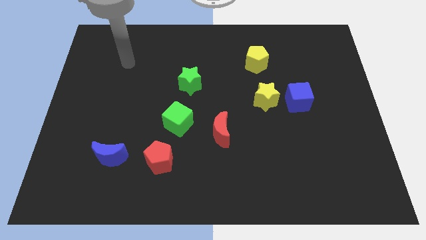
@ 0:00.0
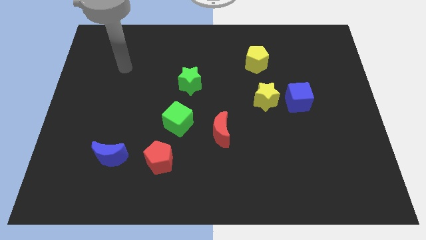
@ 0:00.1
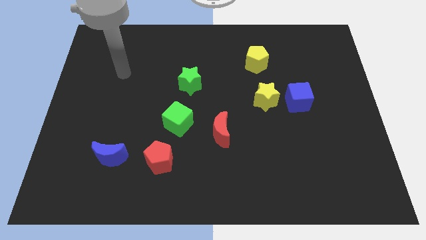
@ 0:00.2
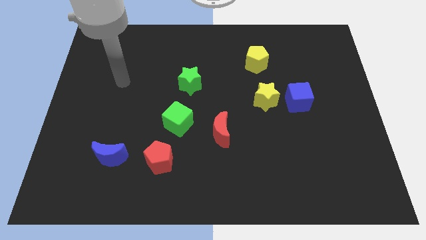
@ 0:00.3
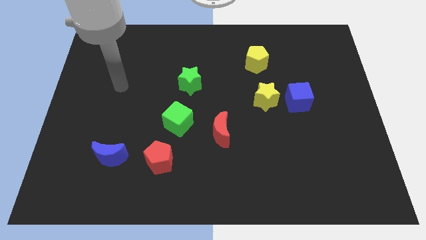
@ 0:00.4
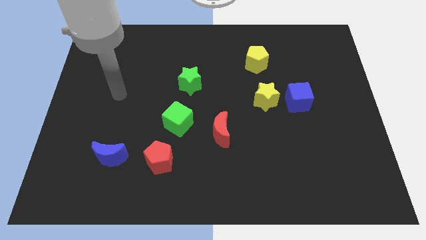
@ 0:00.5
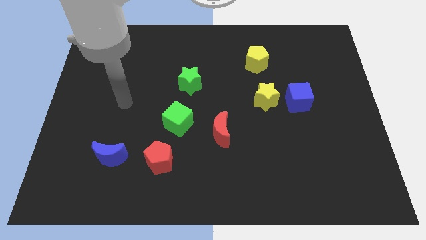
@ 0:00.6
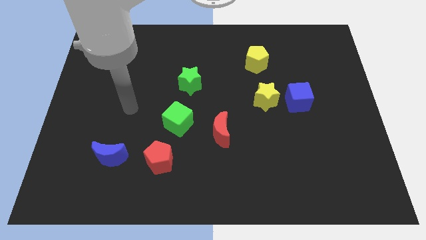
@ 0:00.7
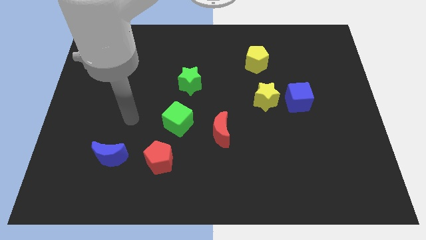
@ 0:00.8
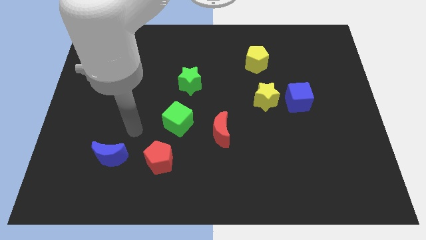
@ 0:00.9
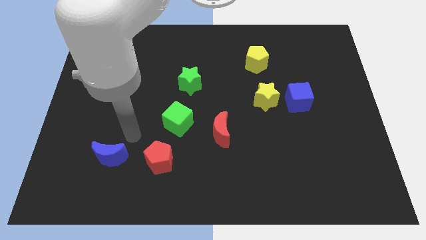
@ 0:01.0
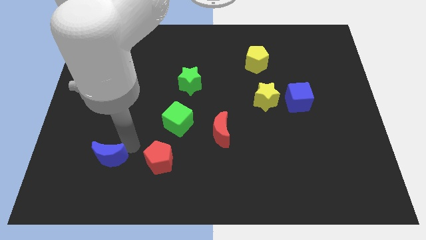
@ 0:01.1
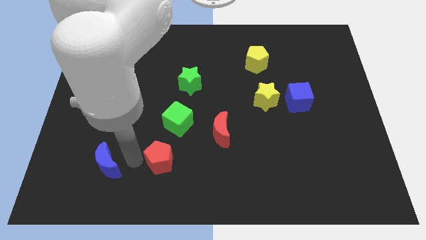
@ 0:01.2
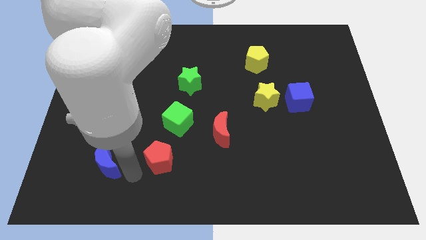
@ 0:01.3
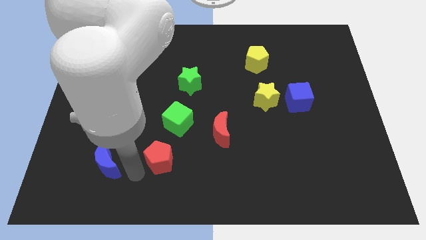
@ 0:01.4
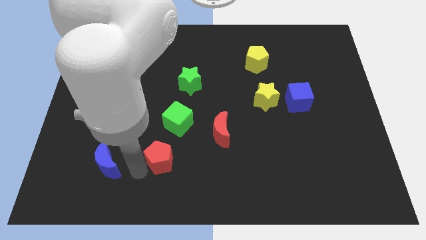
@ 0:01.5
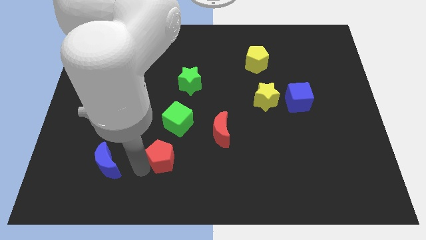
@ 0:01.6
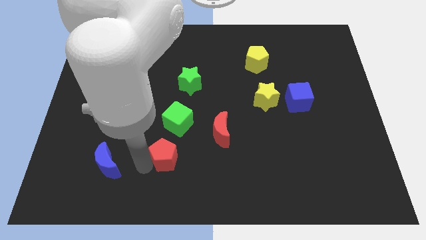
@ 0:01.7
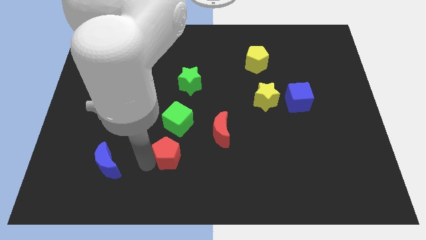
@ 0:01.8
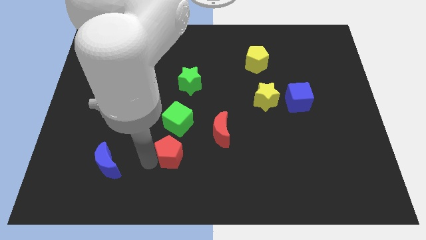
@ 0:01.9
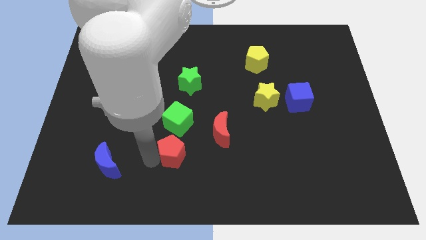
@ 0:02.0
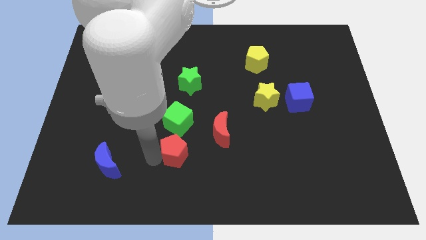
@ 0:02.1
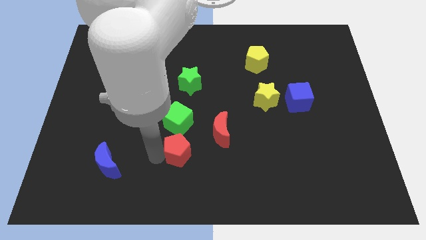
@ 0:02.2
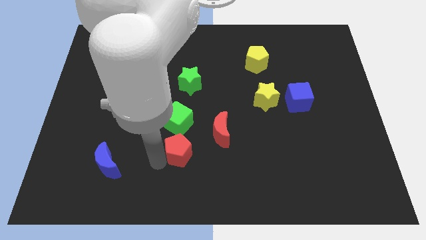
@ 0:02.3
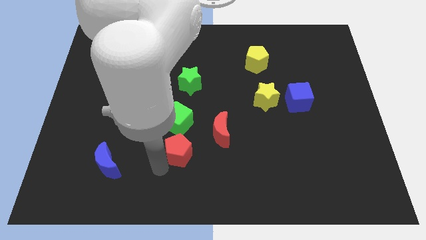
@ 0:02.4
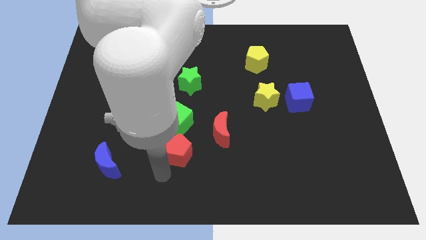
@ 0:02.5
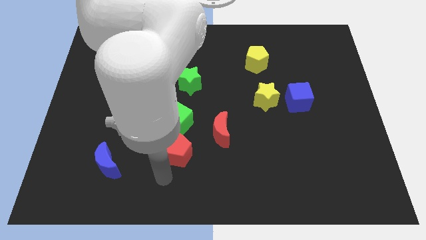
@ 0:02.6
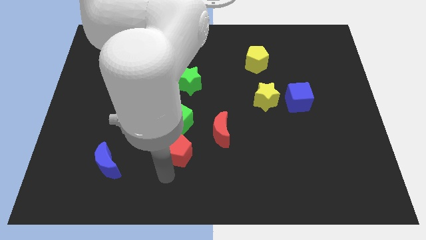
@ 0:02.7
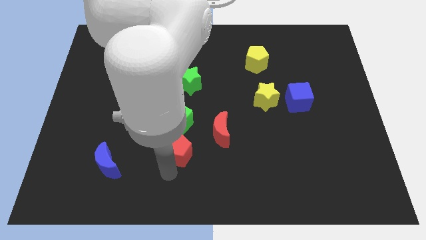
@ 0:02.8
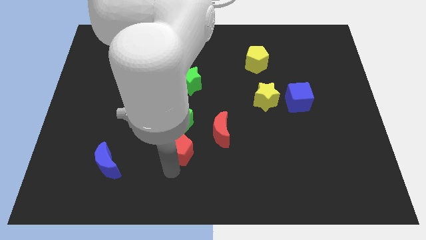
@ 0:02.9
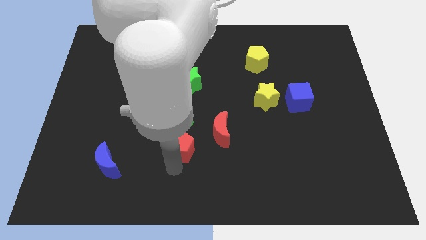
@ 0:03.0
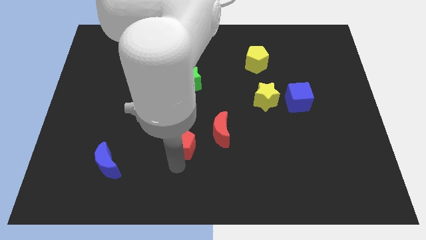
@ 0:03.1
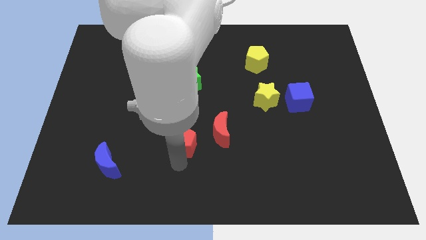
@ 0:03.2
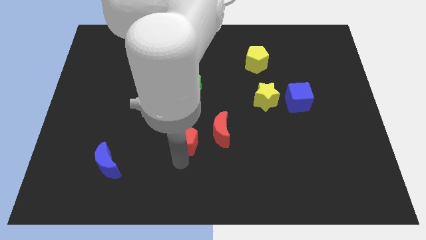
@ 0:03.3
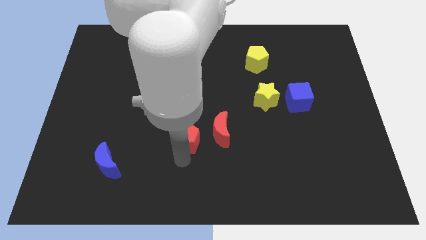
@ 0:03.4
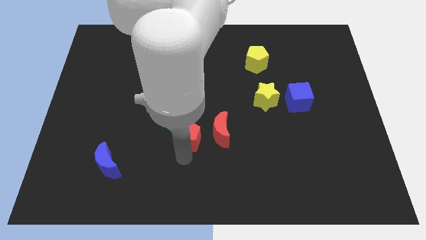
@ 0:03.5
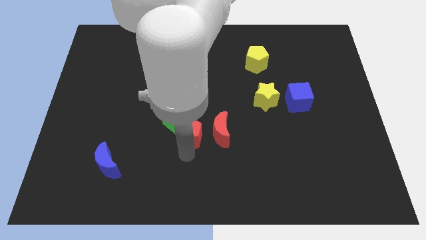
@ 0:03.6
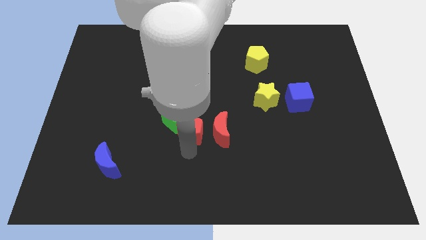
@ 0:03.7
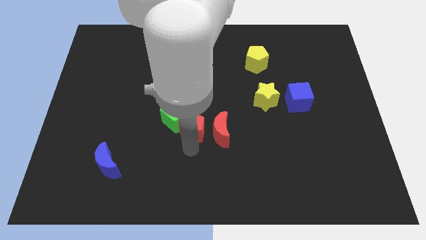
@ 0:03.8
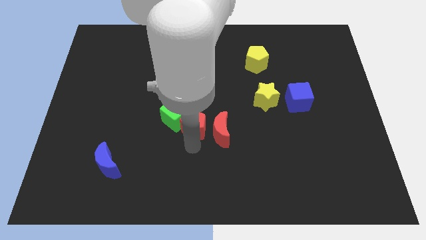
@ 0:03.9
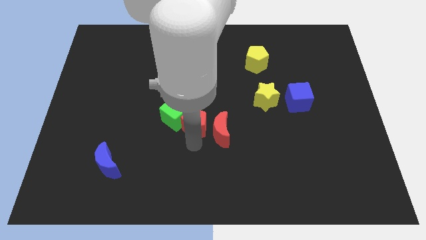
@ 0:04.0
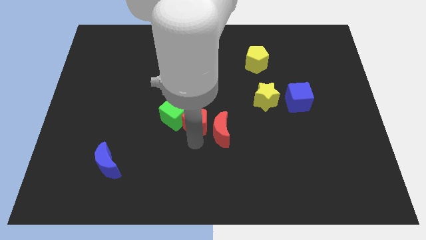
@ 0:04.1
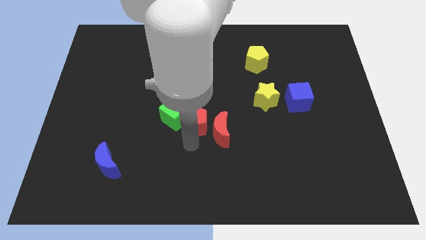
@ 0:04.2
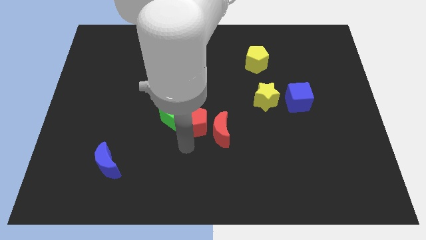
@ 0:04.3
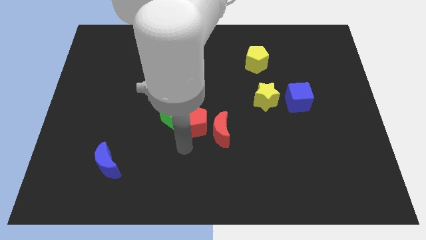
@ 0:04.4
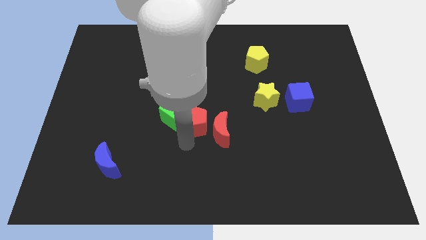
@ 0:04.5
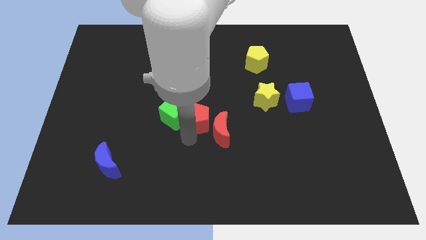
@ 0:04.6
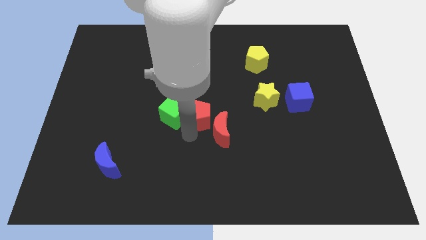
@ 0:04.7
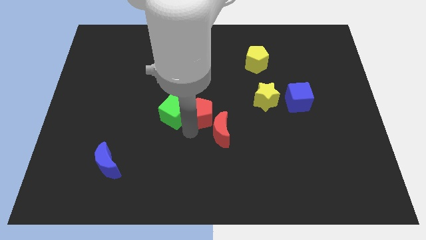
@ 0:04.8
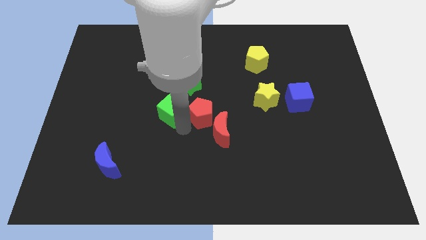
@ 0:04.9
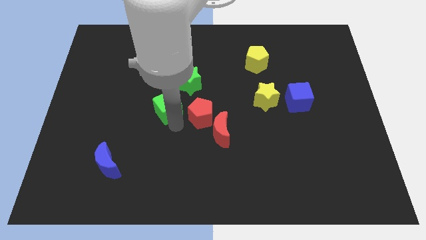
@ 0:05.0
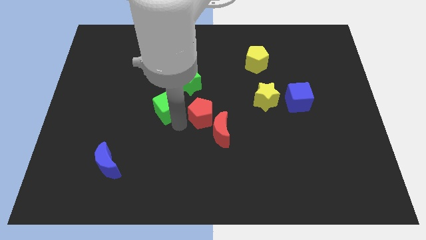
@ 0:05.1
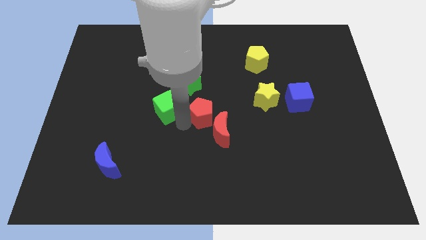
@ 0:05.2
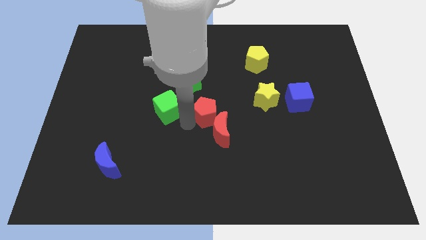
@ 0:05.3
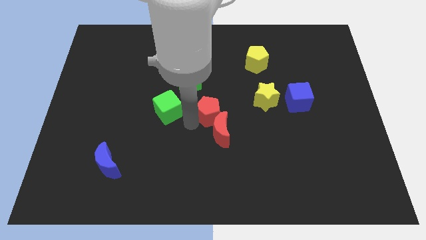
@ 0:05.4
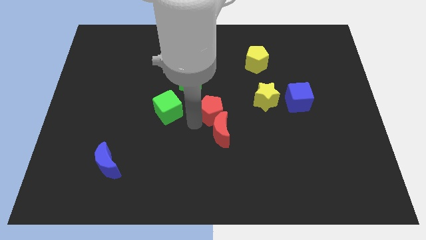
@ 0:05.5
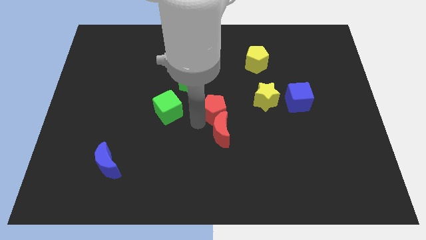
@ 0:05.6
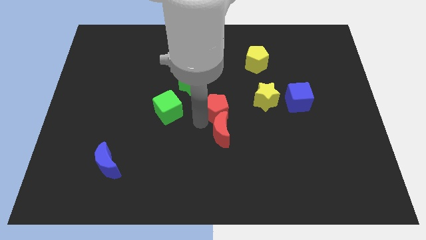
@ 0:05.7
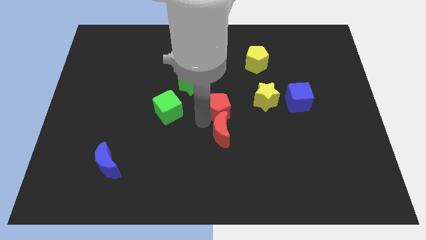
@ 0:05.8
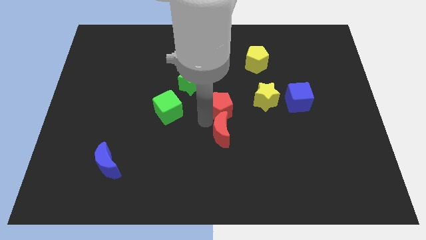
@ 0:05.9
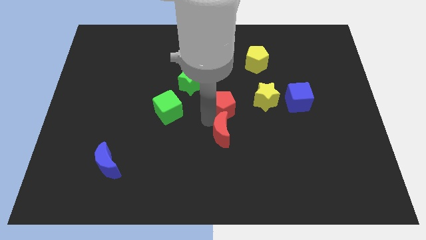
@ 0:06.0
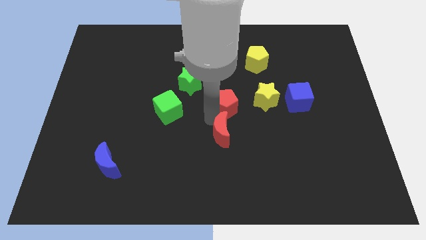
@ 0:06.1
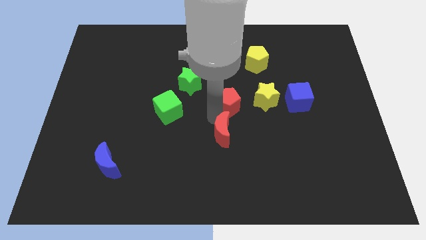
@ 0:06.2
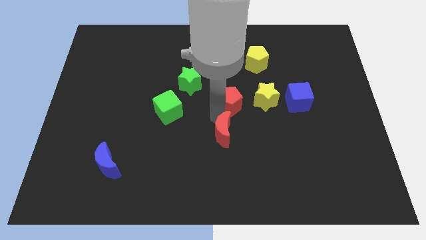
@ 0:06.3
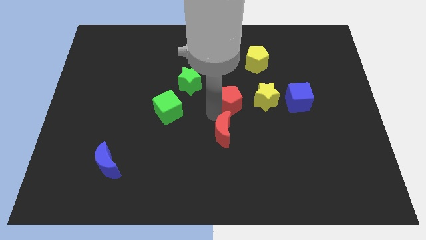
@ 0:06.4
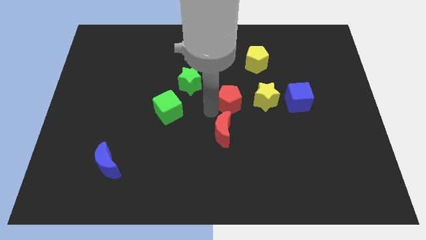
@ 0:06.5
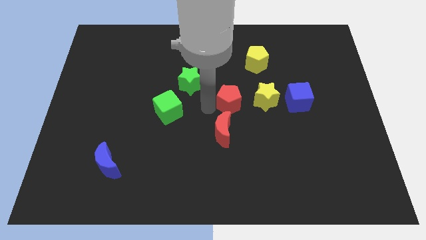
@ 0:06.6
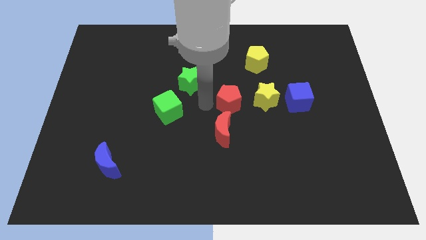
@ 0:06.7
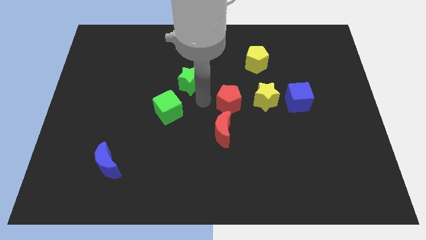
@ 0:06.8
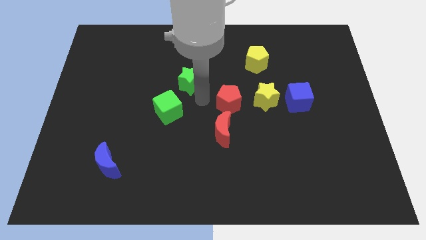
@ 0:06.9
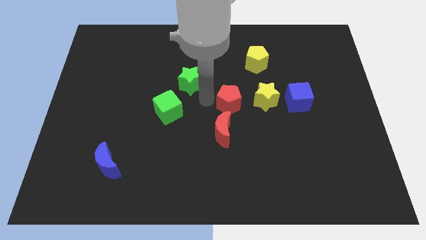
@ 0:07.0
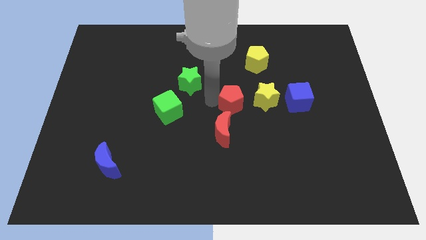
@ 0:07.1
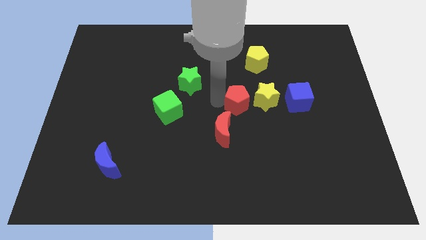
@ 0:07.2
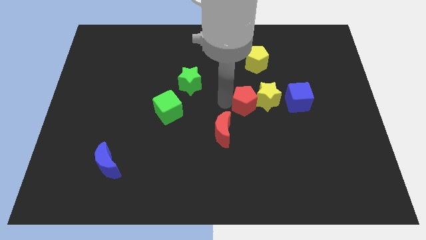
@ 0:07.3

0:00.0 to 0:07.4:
push the red pentagon close to the yellow star
